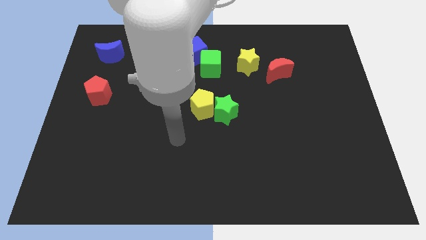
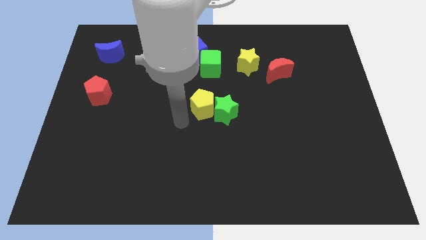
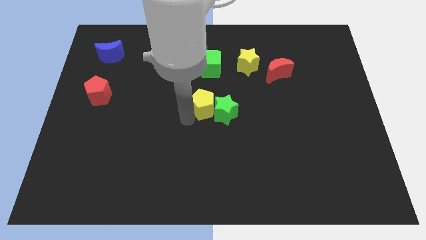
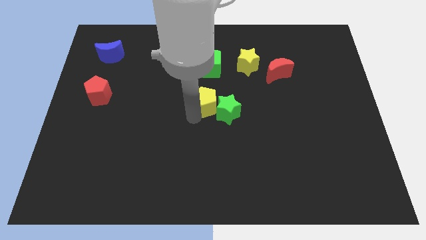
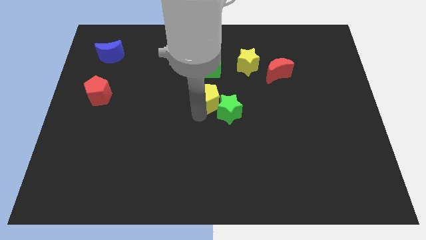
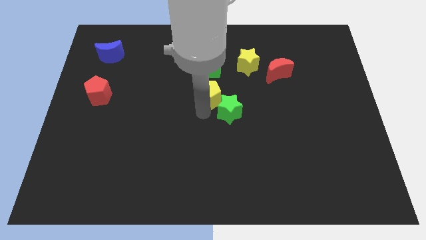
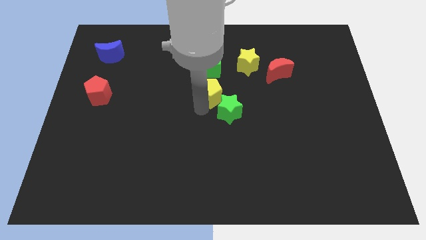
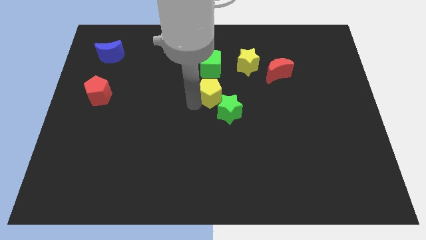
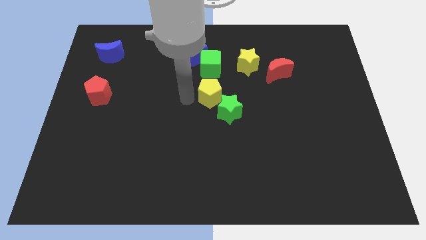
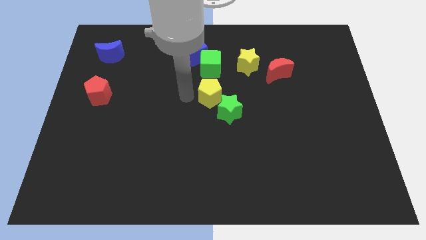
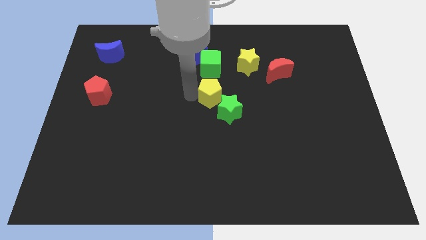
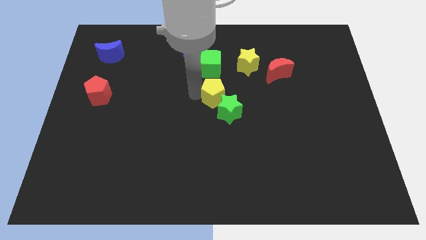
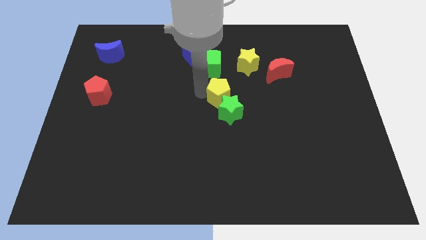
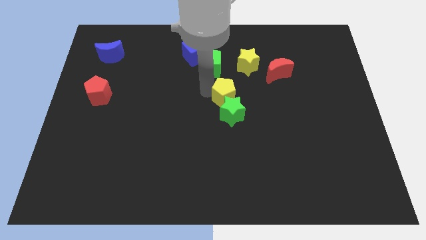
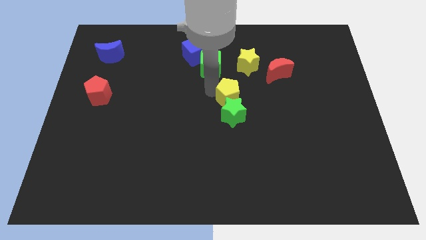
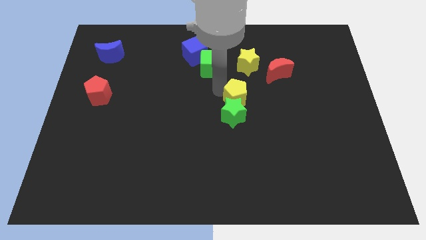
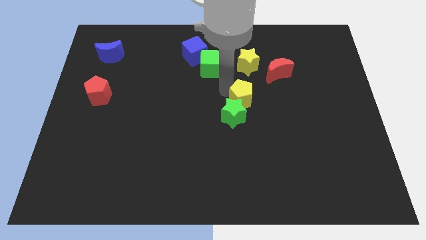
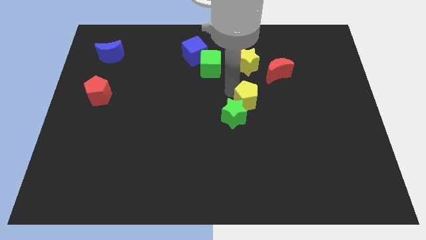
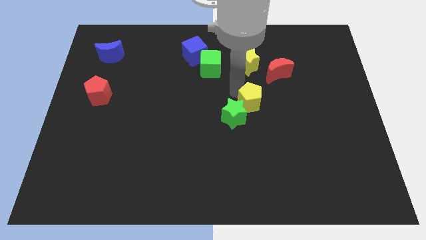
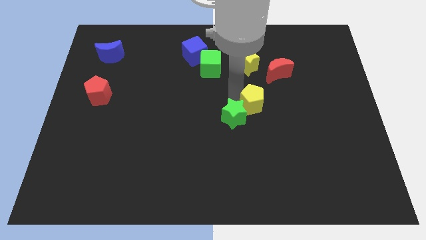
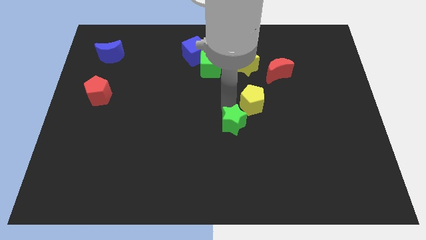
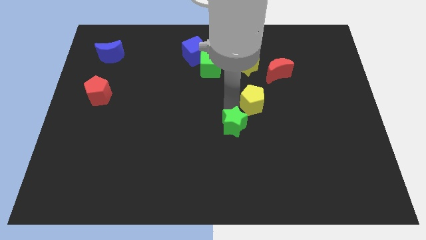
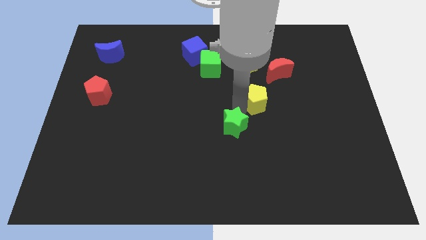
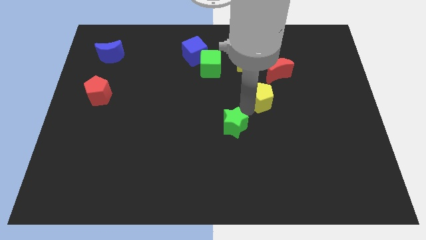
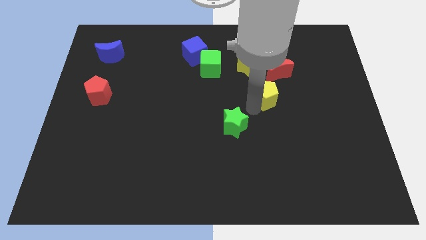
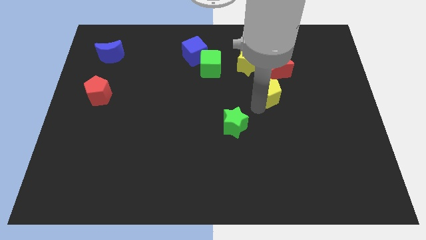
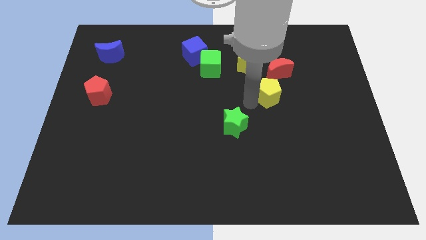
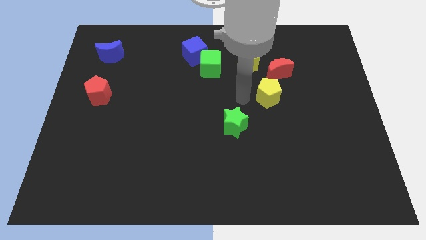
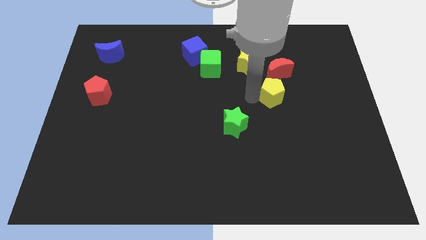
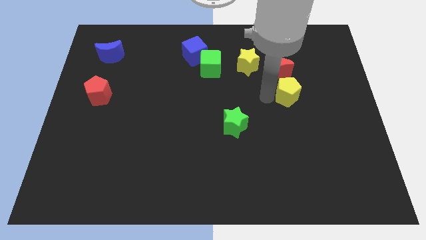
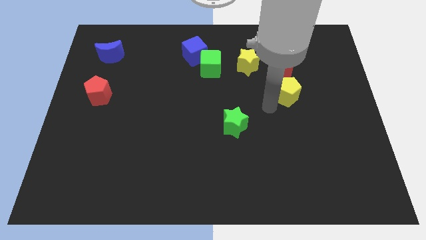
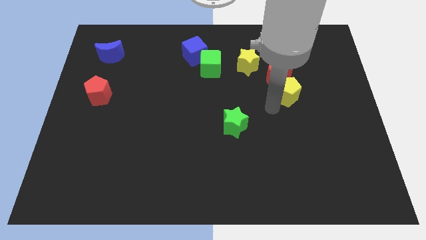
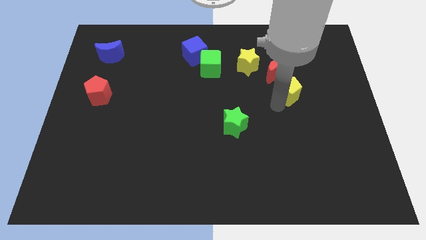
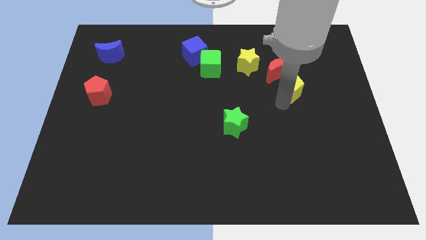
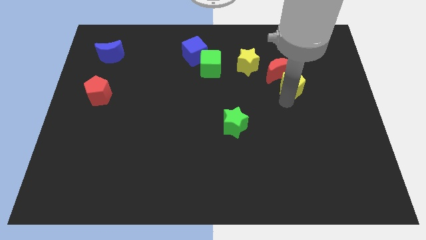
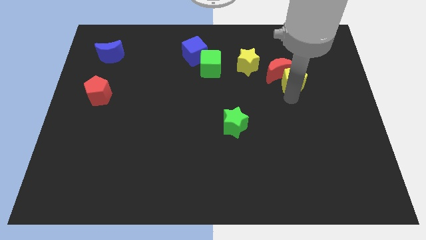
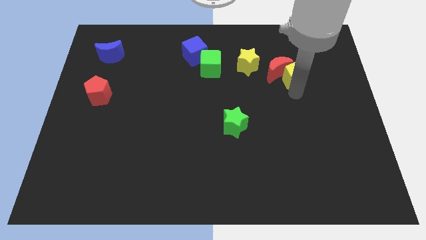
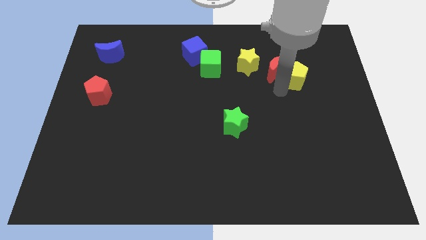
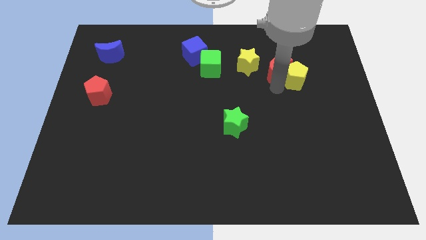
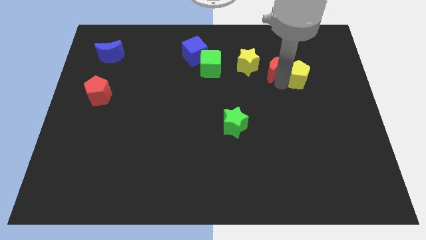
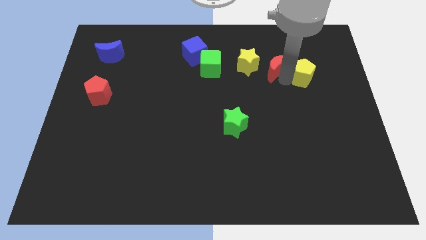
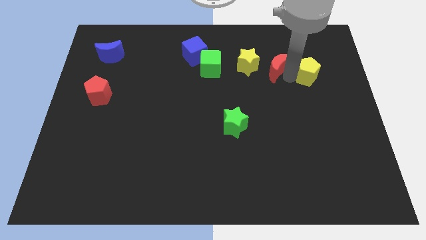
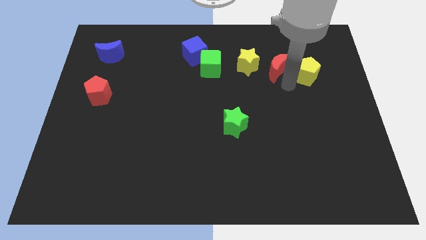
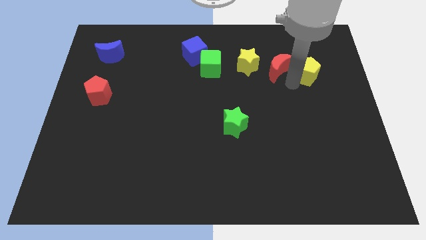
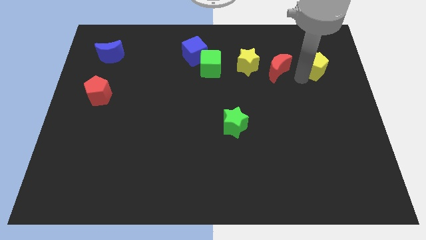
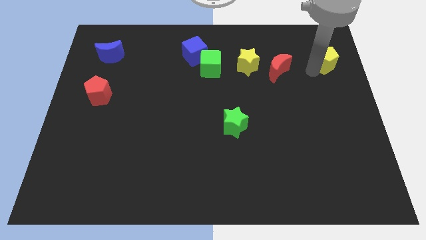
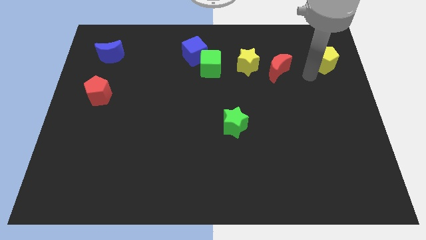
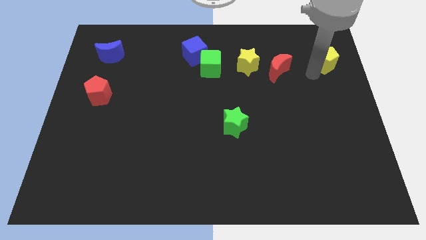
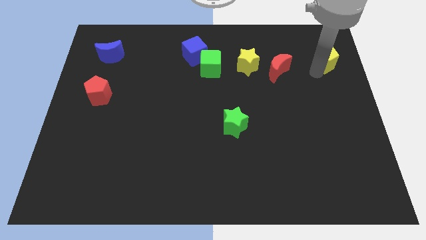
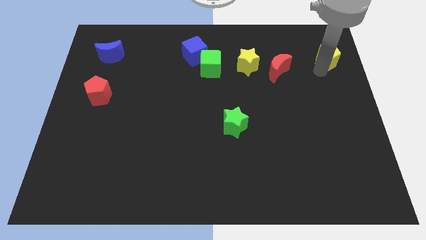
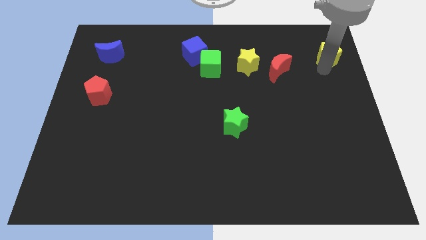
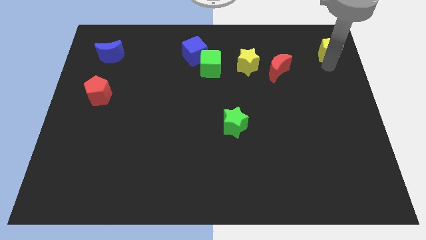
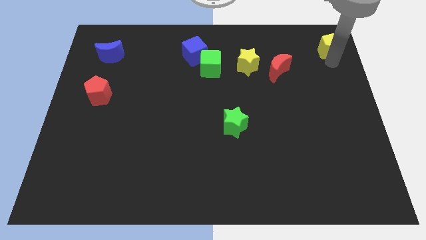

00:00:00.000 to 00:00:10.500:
slide the yellow pentagon to the upper right corner

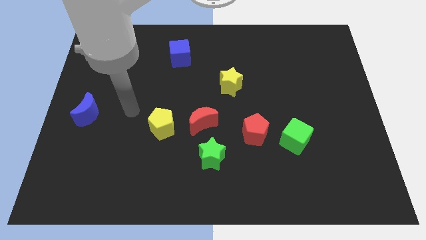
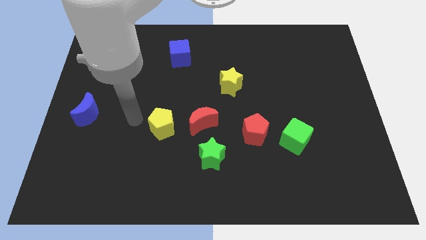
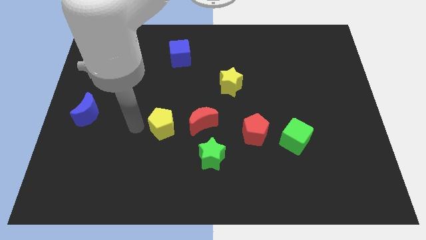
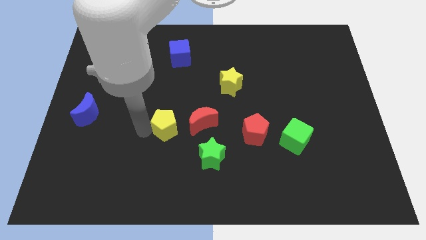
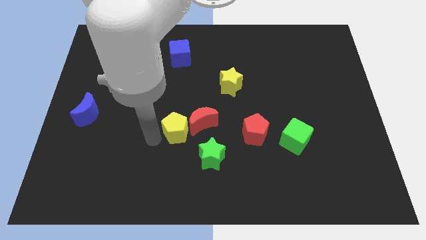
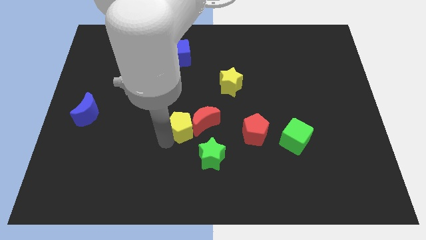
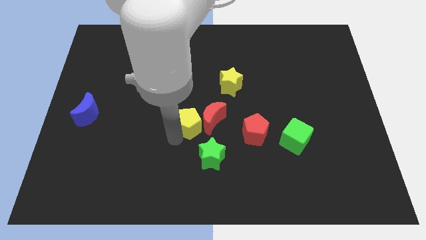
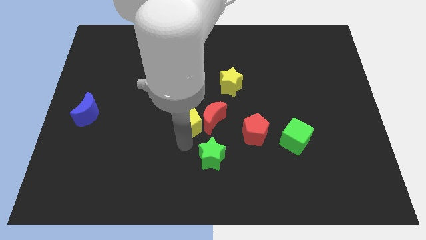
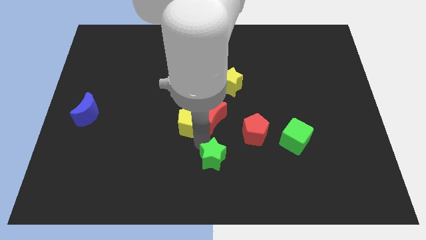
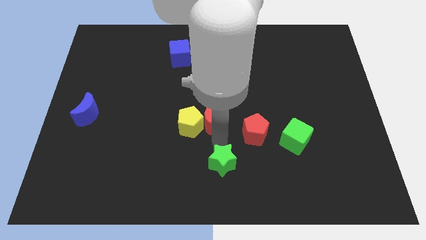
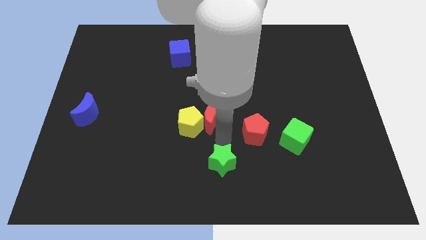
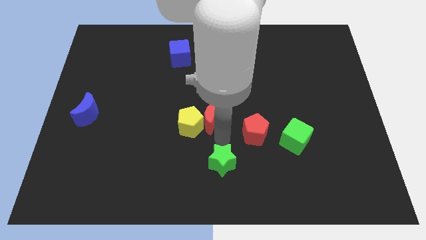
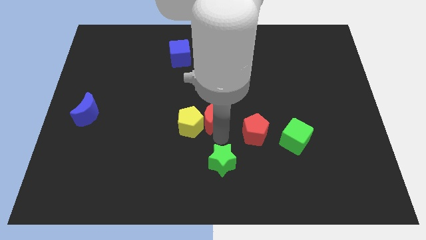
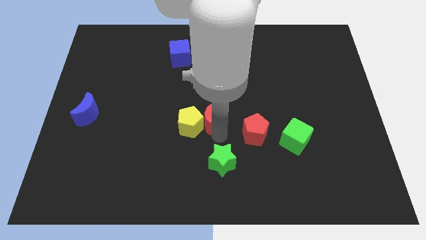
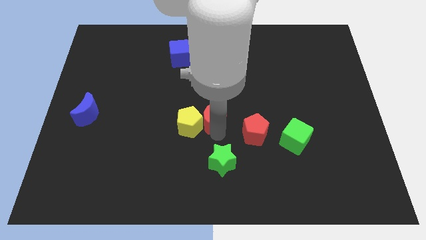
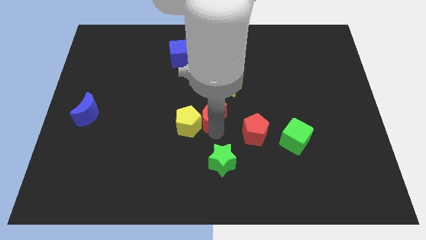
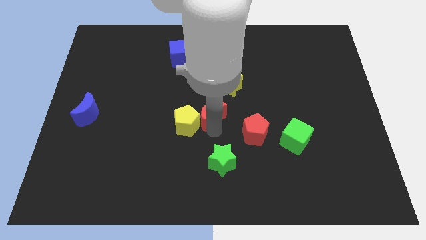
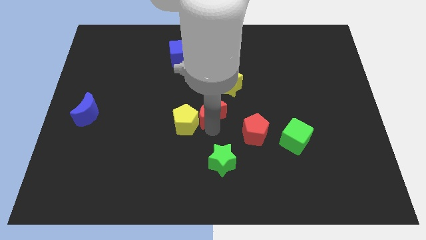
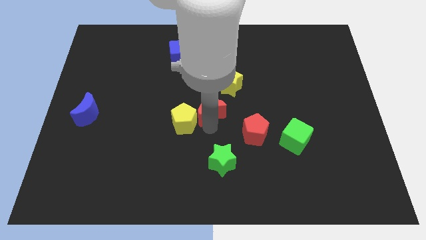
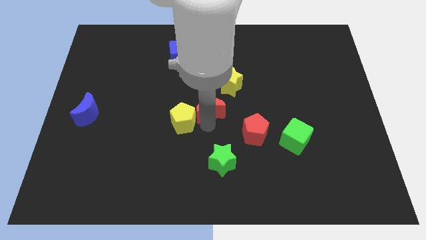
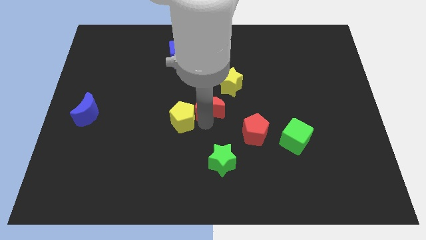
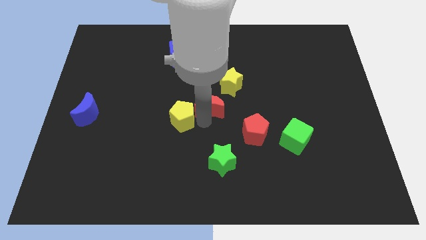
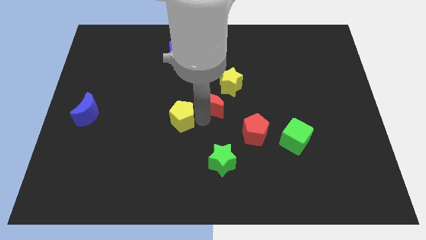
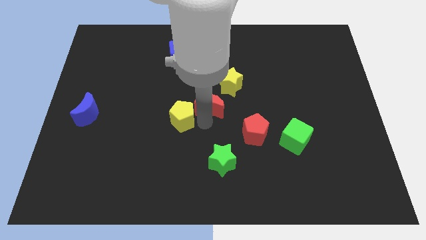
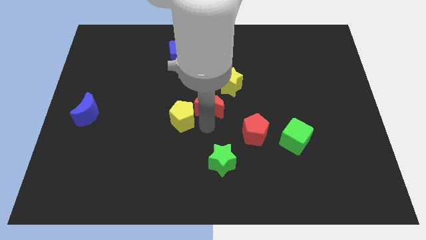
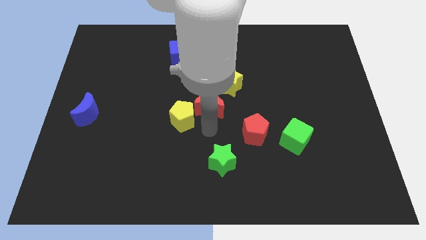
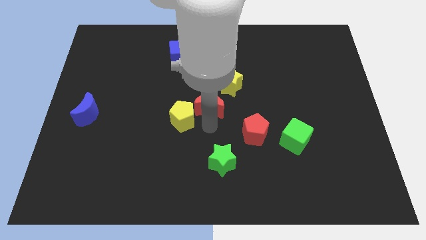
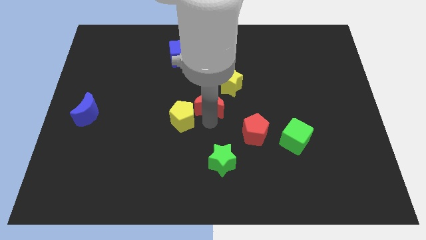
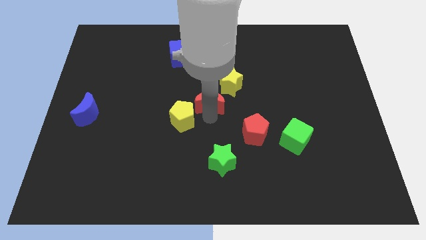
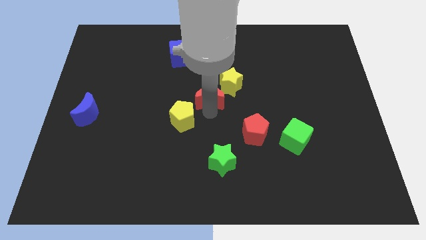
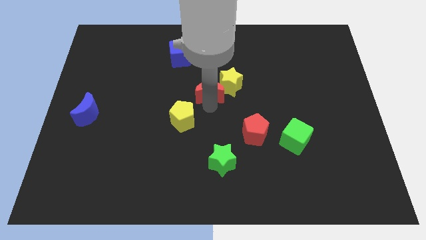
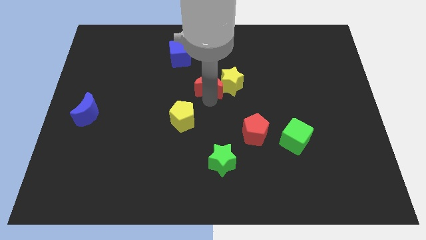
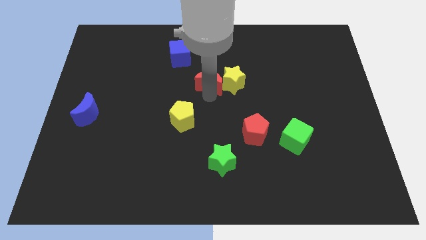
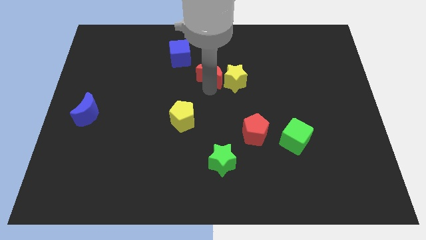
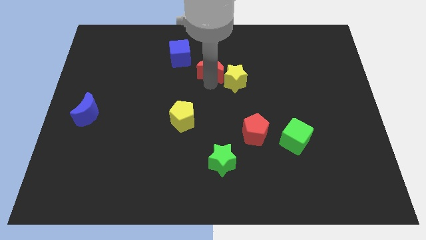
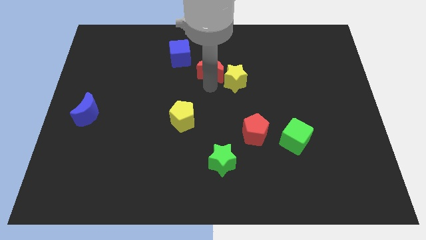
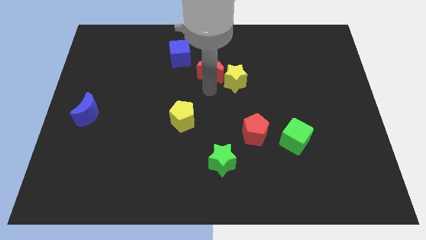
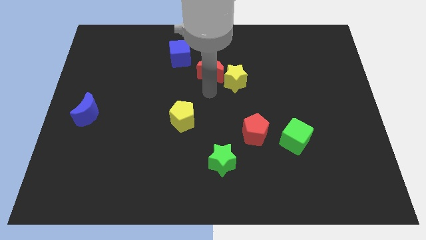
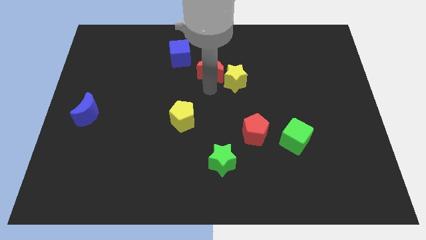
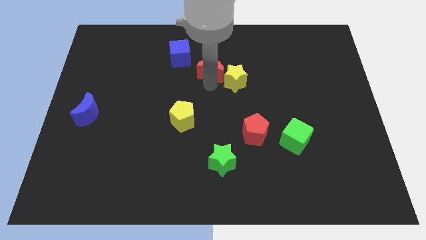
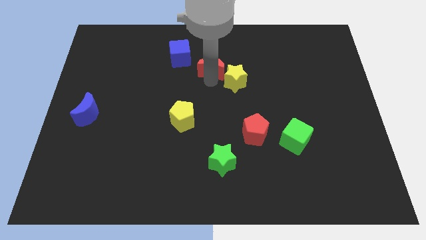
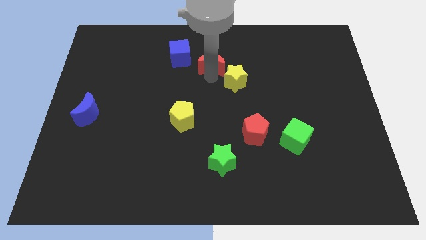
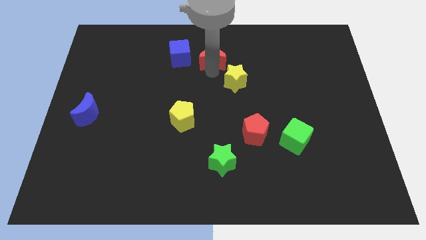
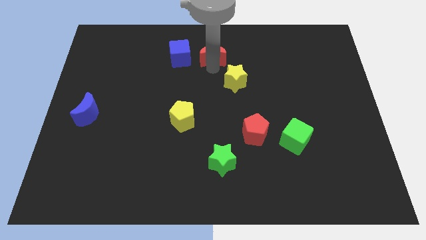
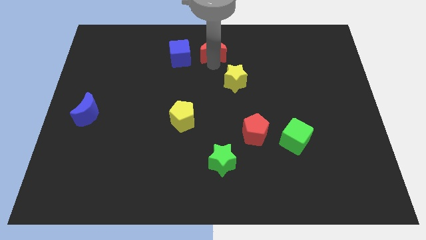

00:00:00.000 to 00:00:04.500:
push the red moon to the towards your base
